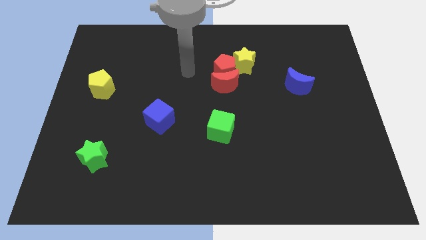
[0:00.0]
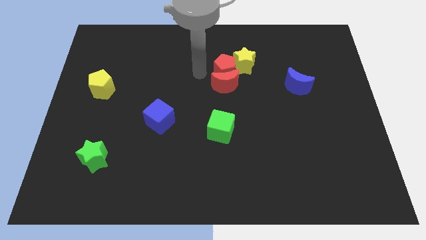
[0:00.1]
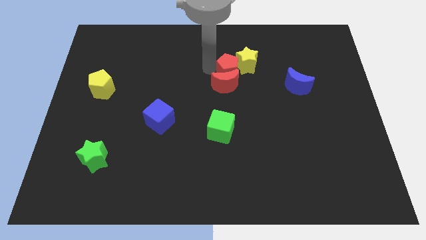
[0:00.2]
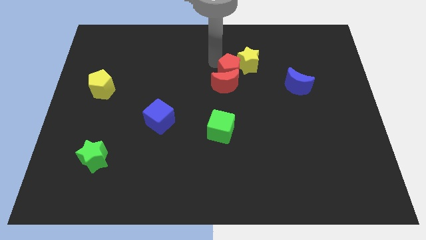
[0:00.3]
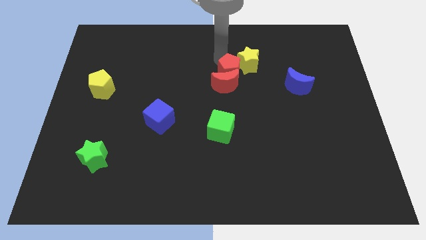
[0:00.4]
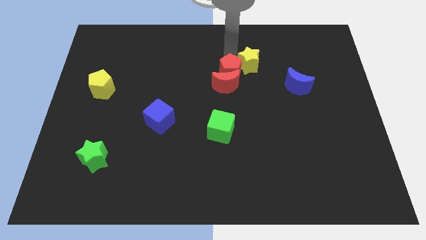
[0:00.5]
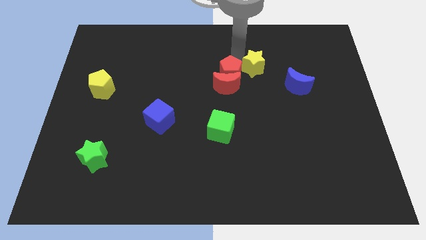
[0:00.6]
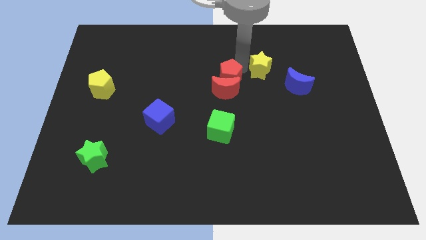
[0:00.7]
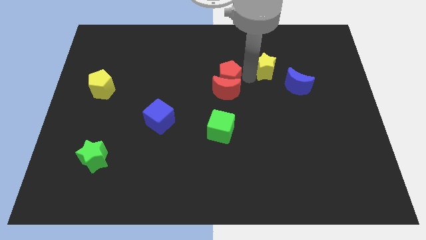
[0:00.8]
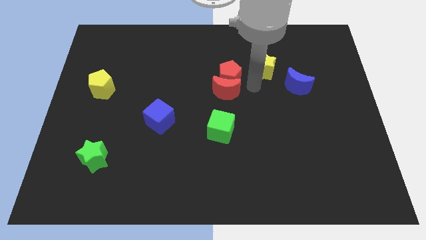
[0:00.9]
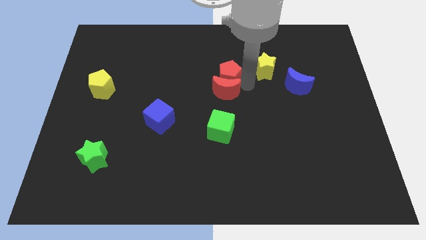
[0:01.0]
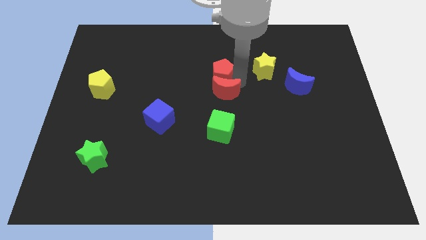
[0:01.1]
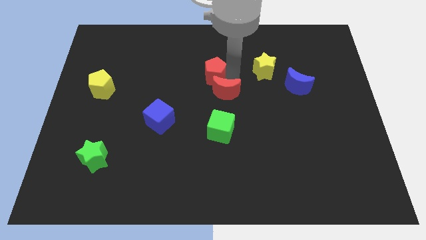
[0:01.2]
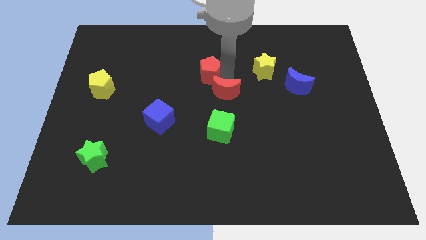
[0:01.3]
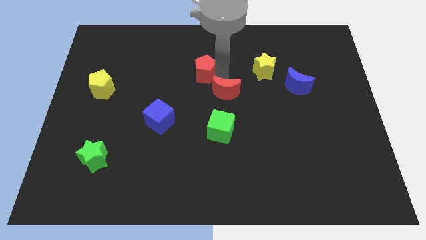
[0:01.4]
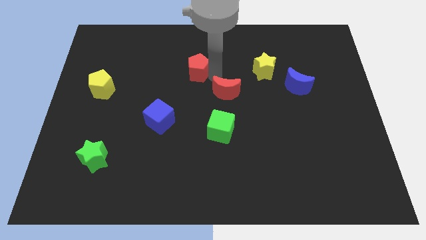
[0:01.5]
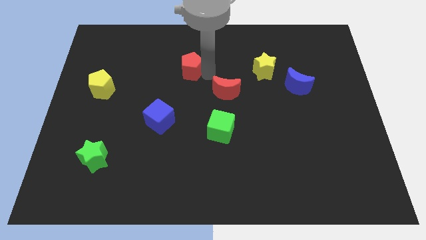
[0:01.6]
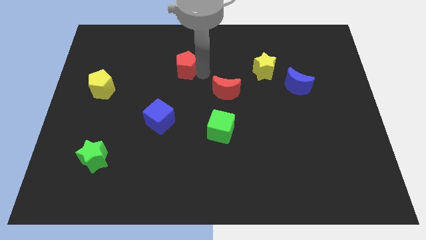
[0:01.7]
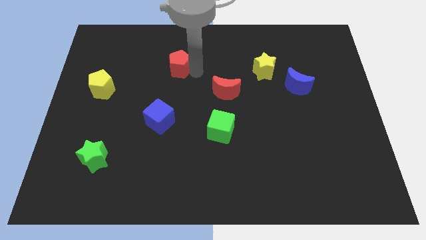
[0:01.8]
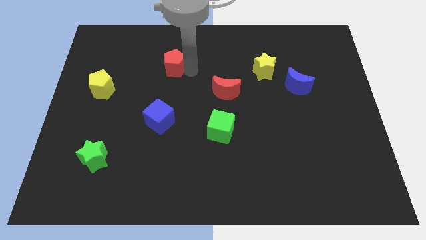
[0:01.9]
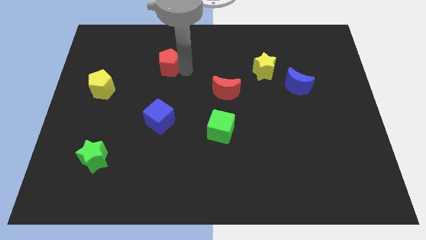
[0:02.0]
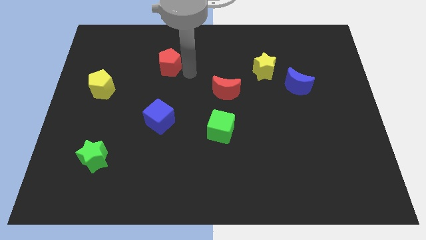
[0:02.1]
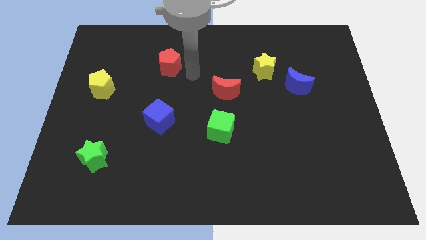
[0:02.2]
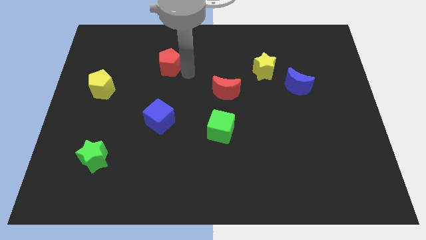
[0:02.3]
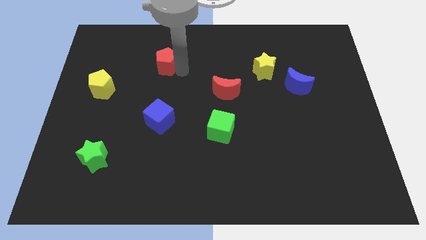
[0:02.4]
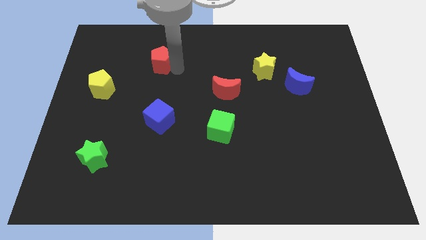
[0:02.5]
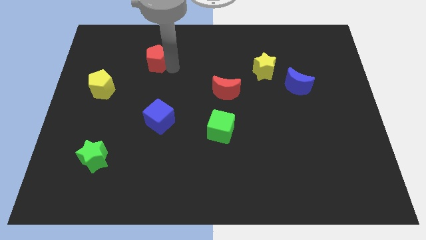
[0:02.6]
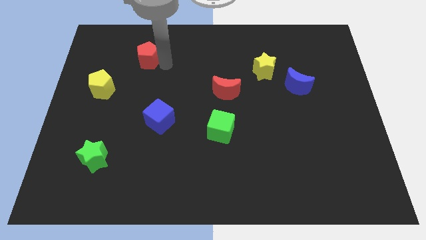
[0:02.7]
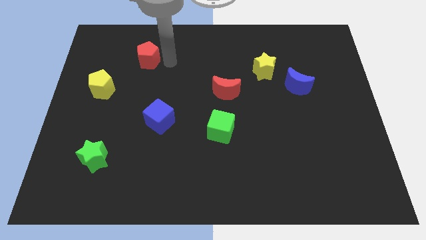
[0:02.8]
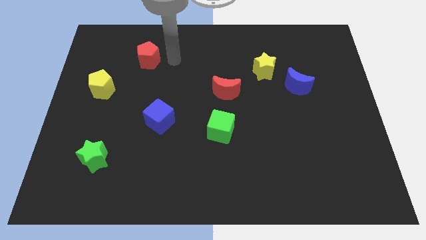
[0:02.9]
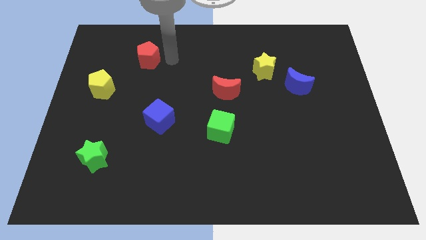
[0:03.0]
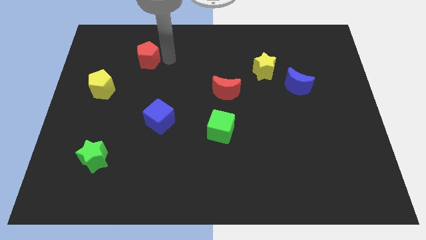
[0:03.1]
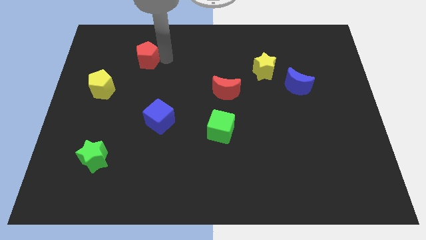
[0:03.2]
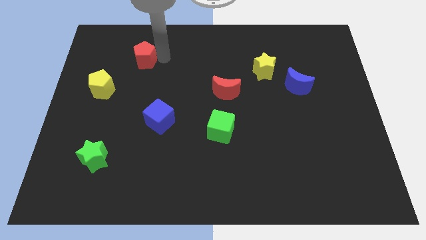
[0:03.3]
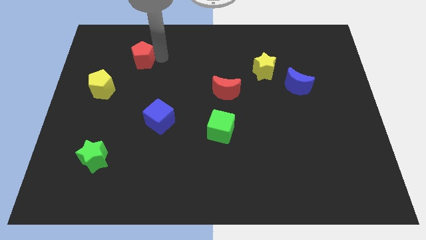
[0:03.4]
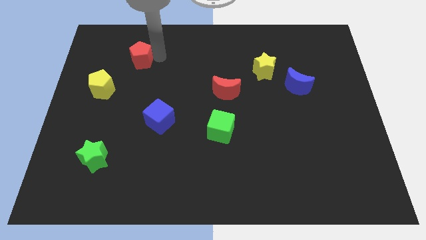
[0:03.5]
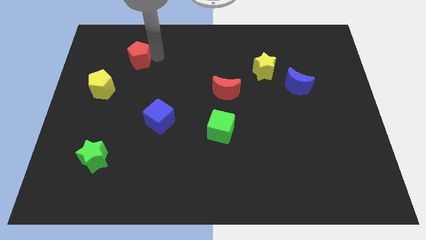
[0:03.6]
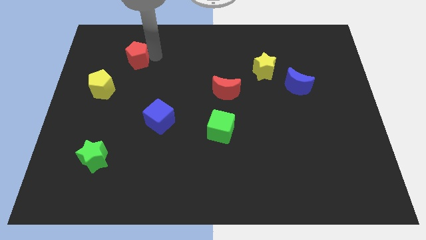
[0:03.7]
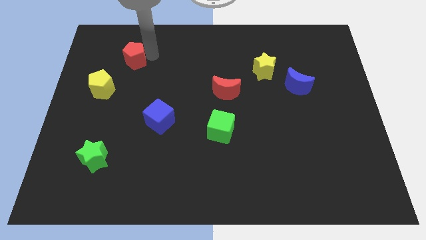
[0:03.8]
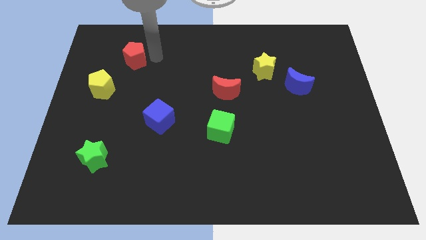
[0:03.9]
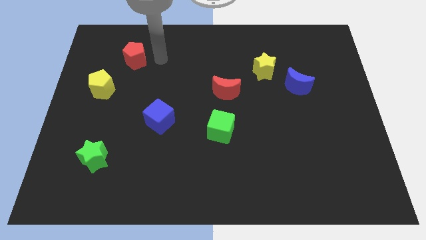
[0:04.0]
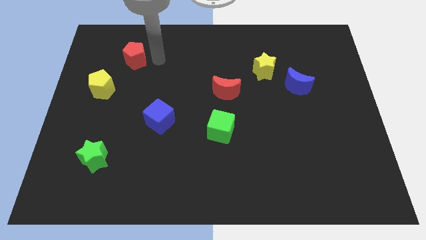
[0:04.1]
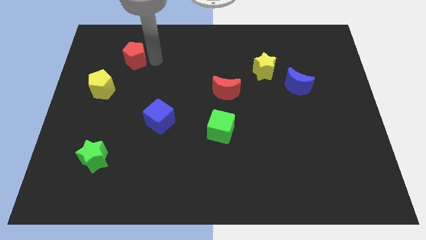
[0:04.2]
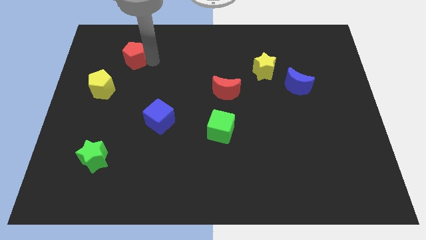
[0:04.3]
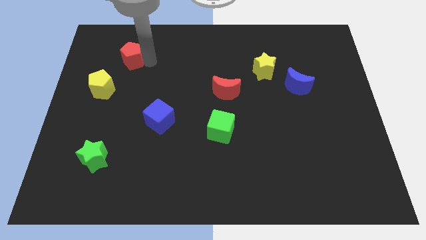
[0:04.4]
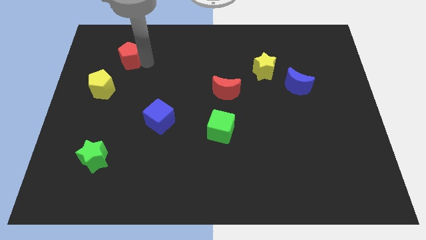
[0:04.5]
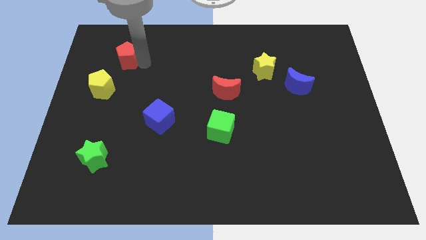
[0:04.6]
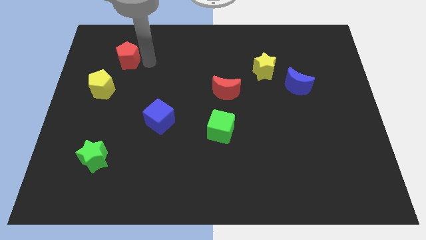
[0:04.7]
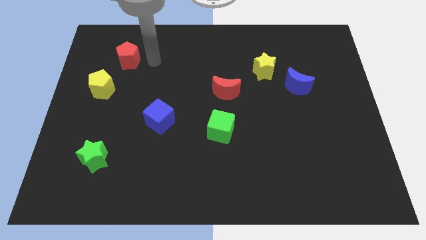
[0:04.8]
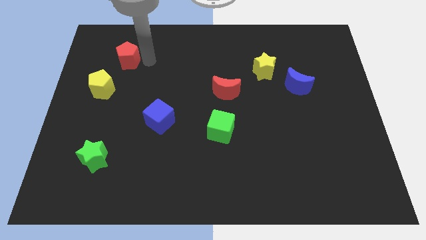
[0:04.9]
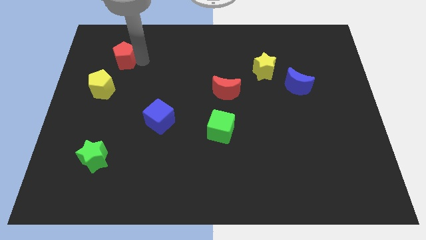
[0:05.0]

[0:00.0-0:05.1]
slide the red pentagon above the yellow pentagon

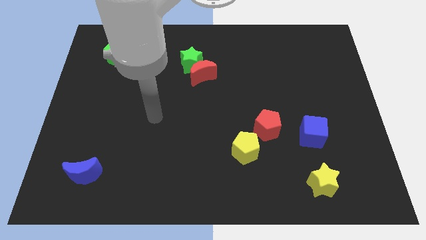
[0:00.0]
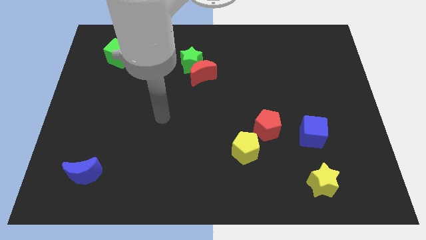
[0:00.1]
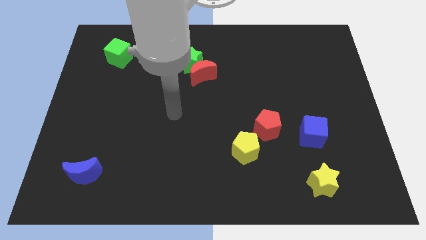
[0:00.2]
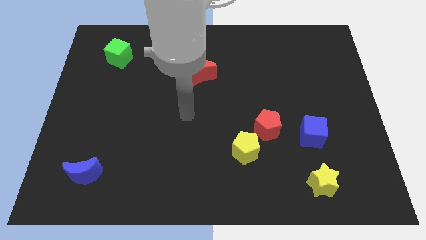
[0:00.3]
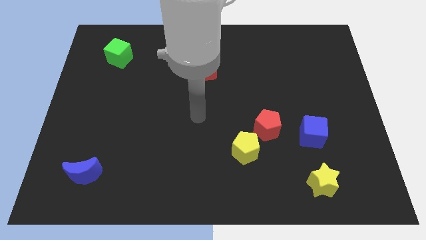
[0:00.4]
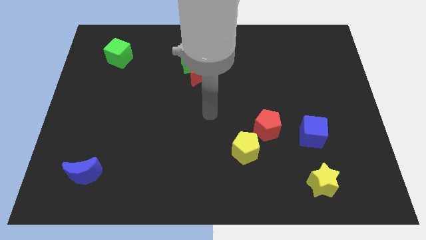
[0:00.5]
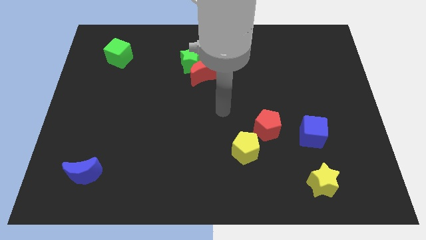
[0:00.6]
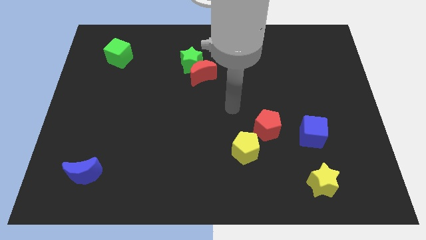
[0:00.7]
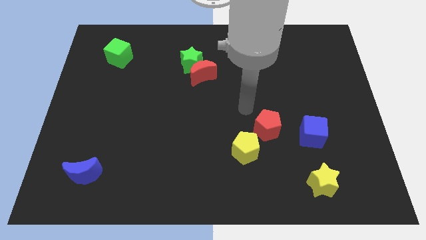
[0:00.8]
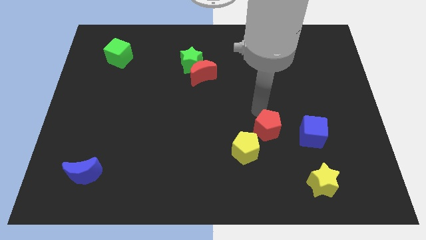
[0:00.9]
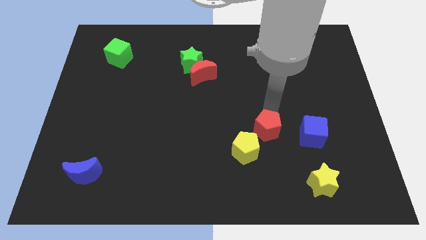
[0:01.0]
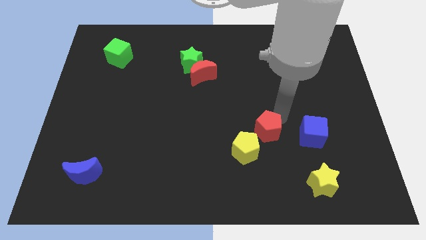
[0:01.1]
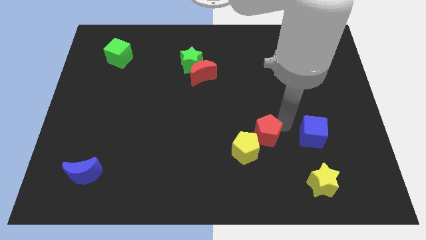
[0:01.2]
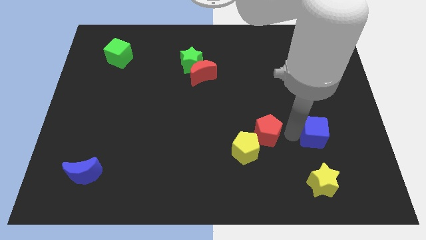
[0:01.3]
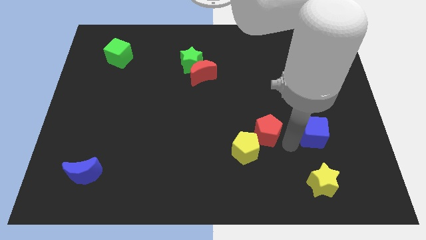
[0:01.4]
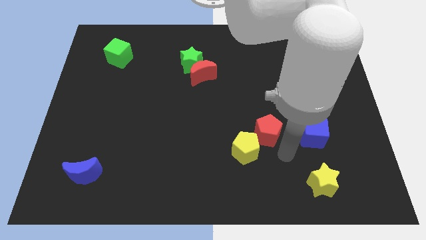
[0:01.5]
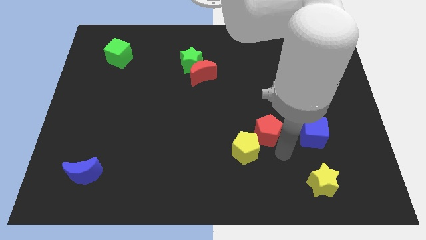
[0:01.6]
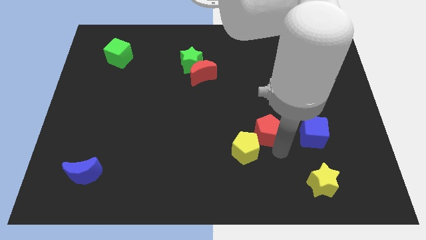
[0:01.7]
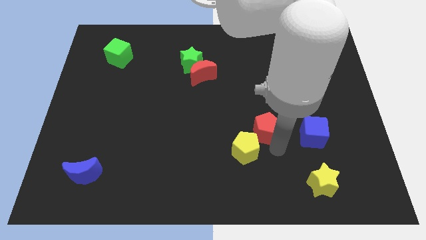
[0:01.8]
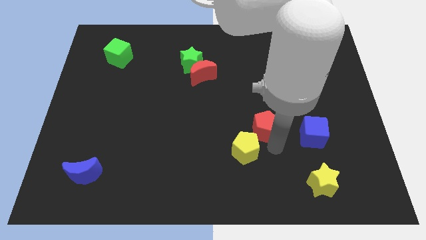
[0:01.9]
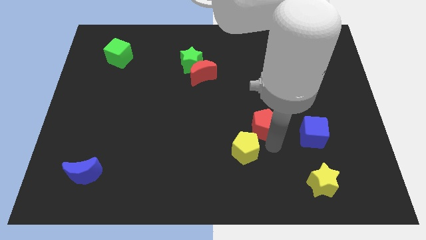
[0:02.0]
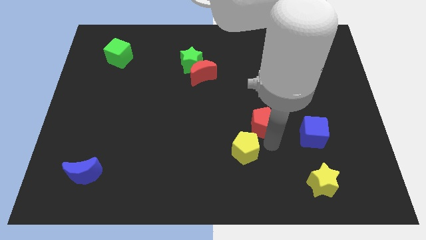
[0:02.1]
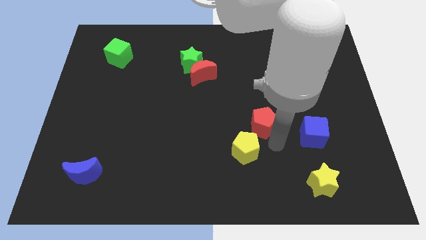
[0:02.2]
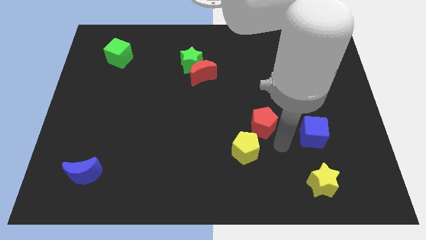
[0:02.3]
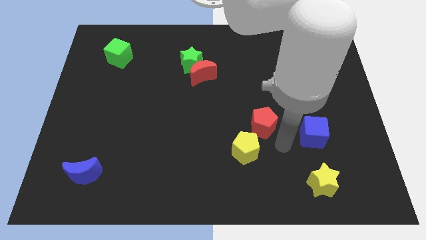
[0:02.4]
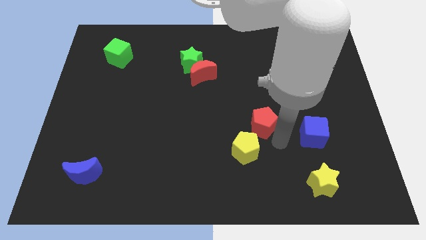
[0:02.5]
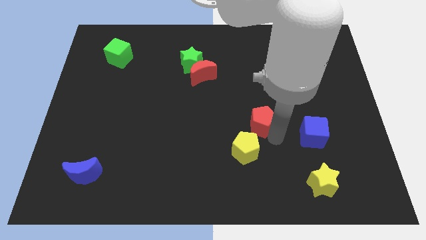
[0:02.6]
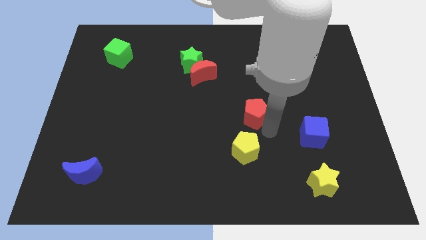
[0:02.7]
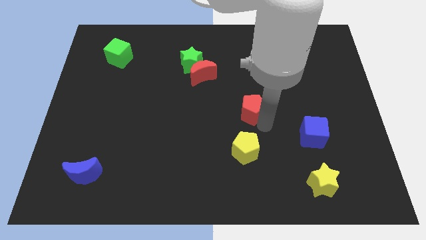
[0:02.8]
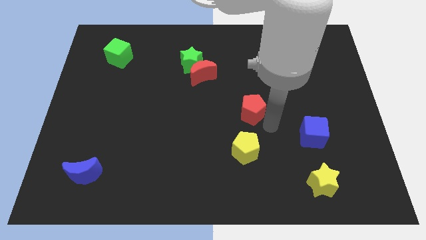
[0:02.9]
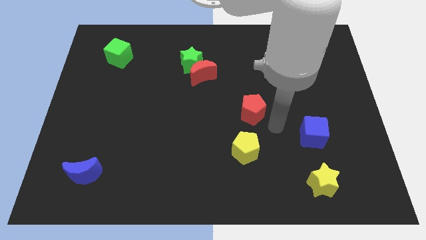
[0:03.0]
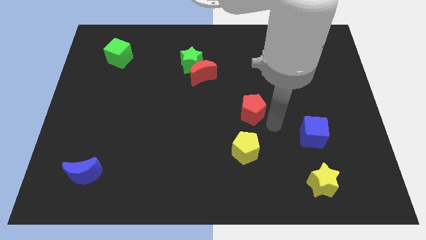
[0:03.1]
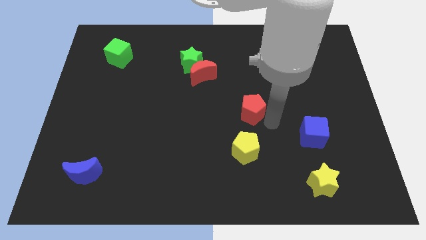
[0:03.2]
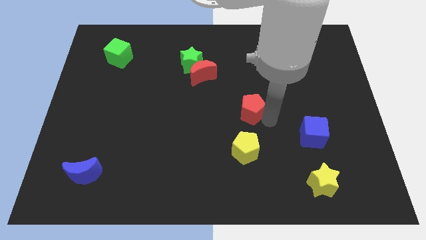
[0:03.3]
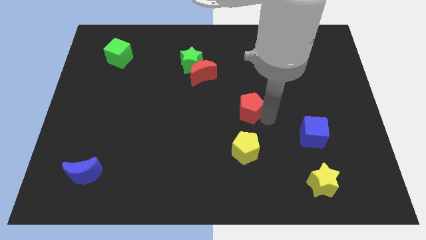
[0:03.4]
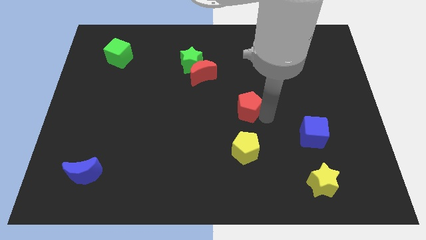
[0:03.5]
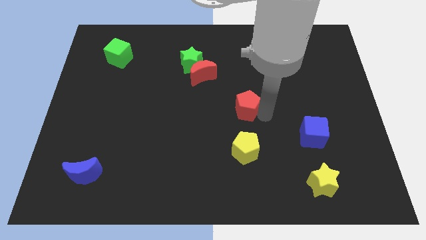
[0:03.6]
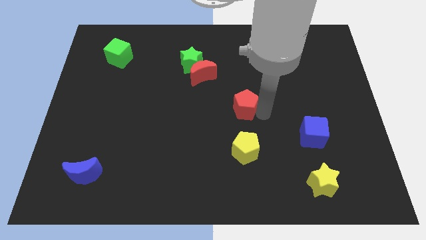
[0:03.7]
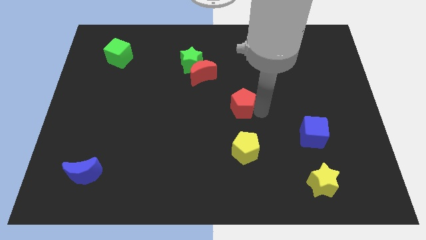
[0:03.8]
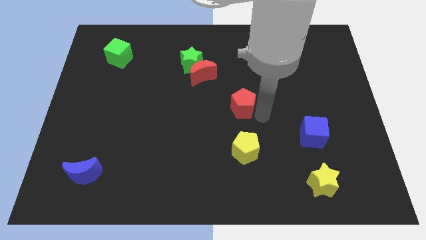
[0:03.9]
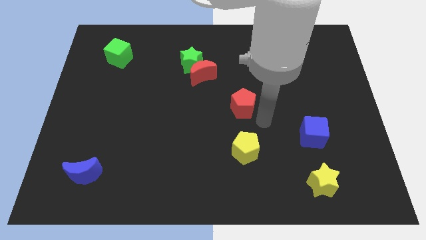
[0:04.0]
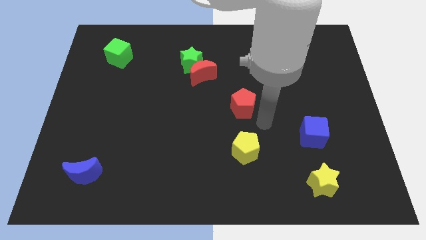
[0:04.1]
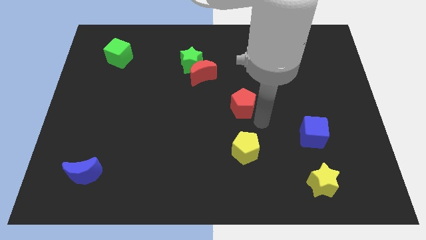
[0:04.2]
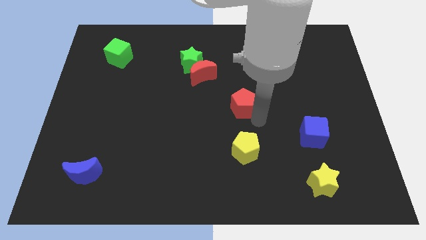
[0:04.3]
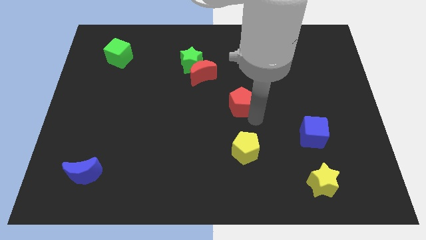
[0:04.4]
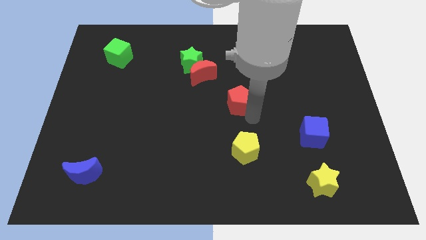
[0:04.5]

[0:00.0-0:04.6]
move the red pentagon to the bottom right side of the red moon
